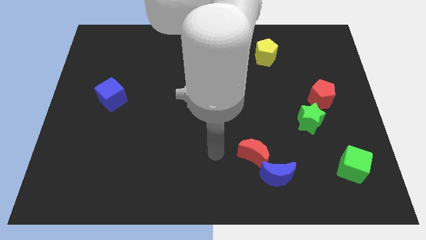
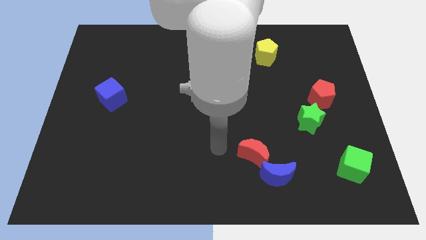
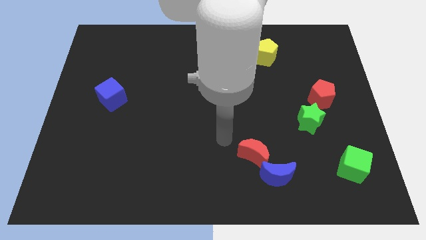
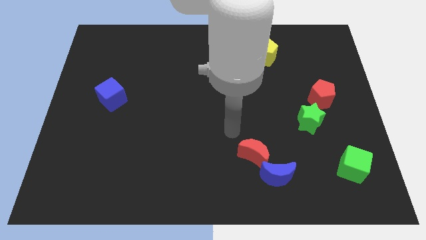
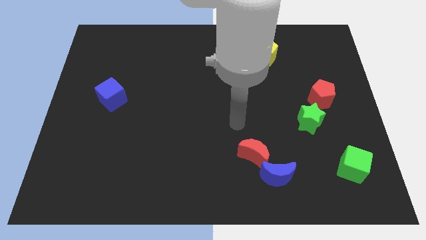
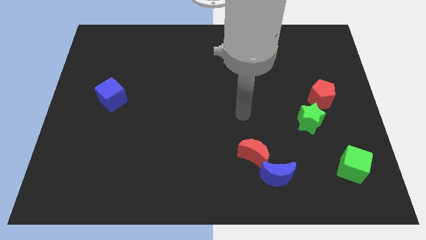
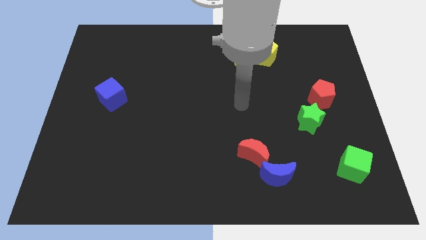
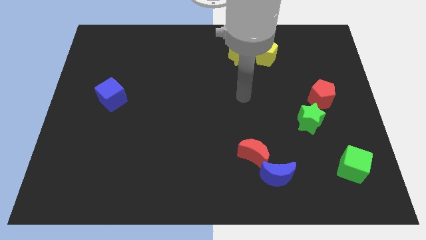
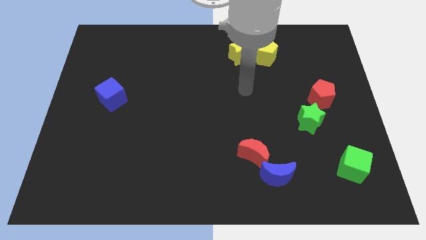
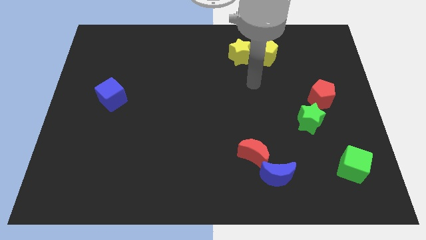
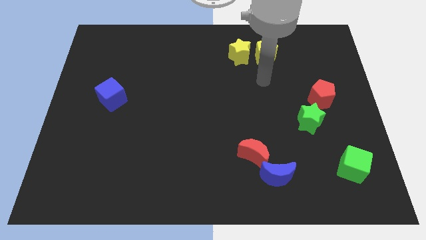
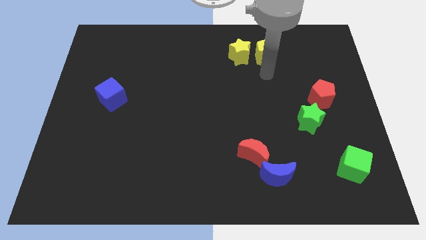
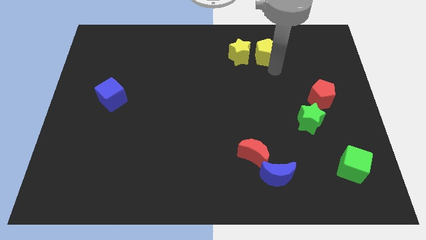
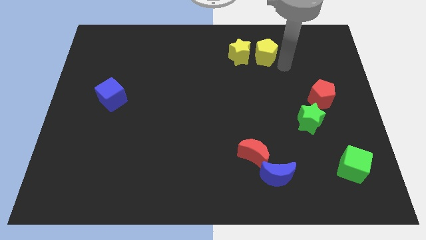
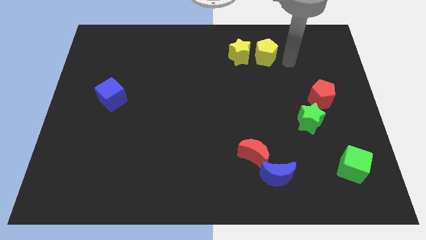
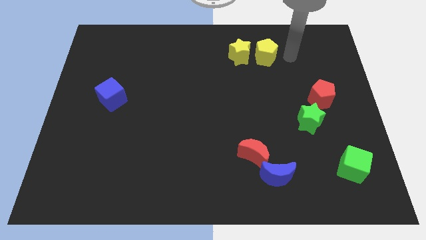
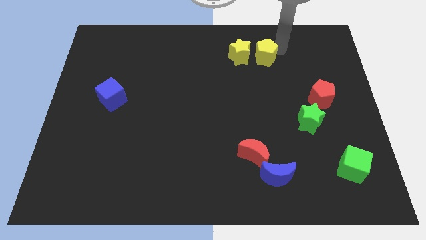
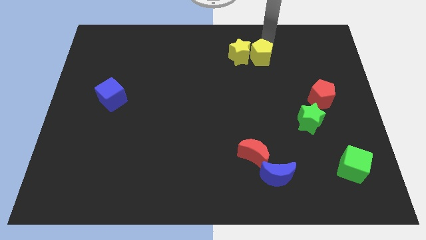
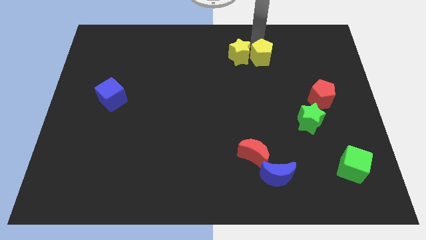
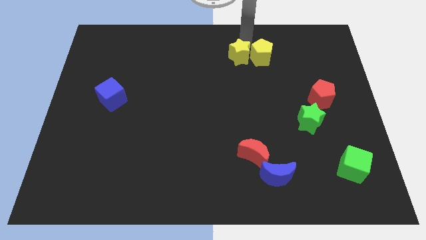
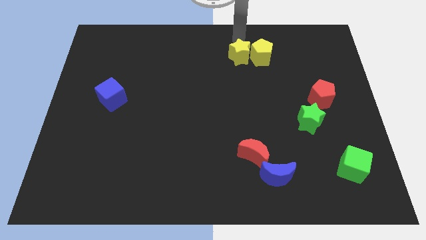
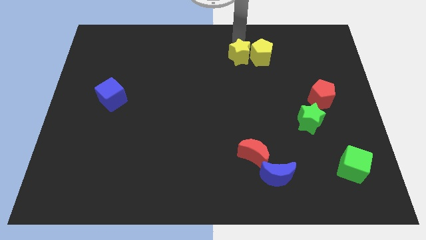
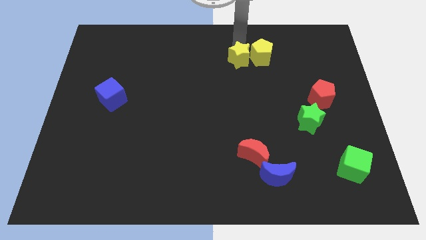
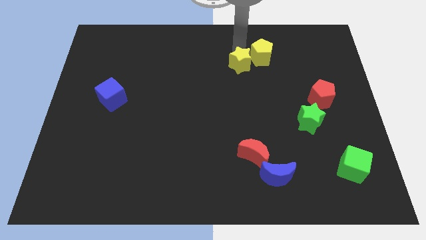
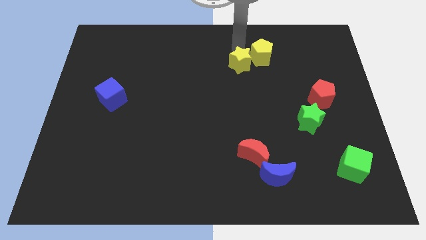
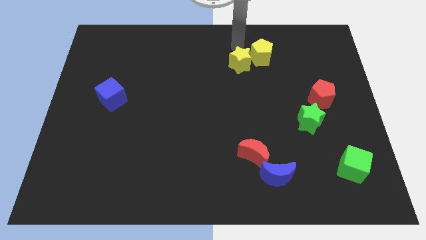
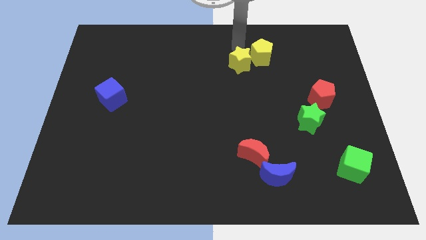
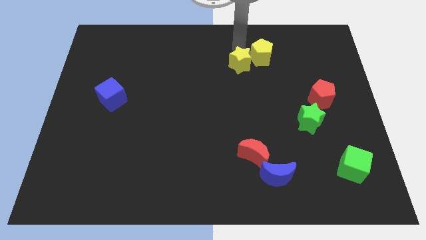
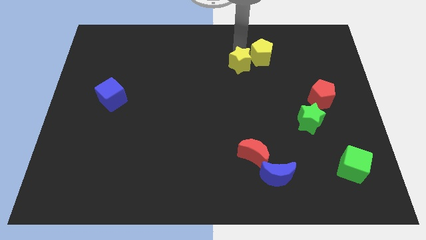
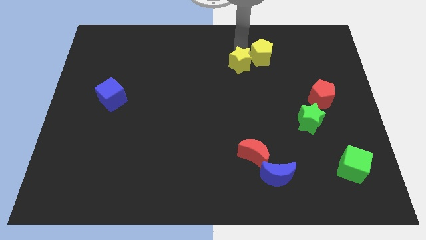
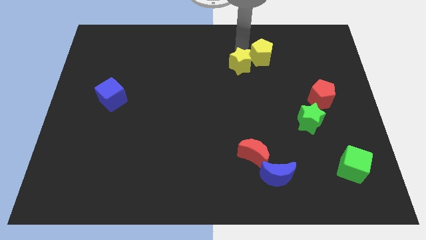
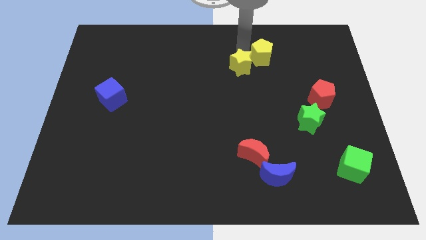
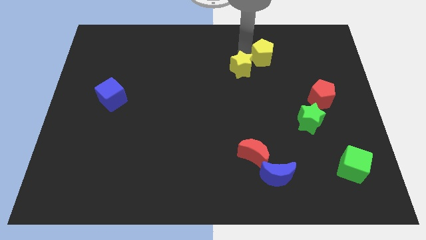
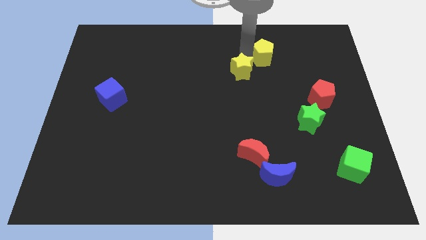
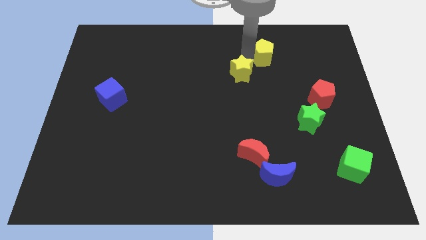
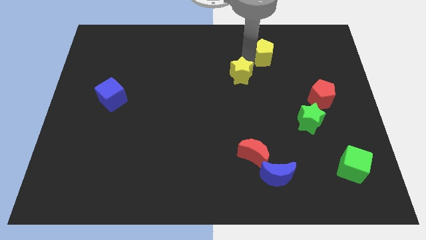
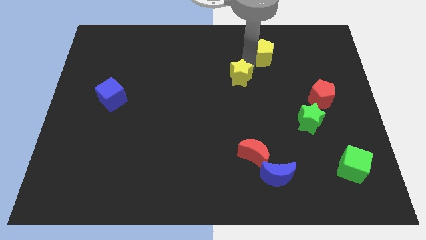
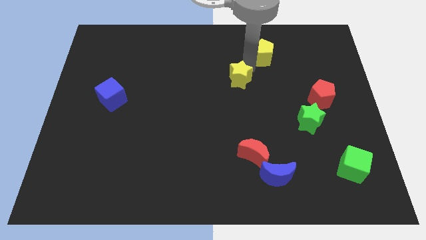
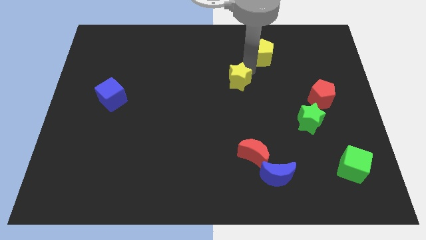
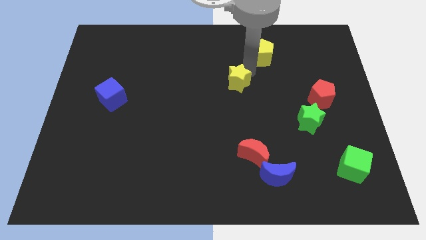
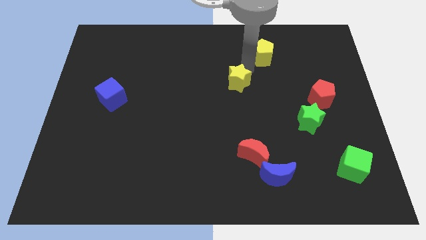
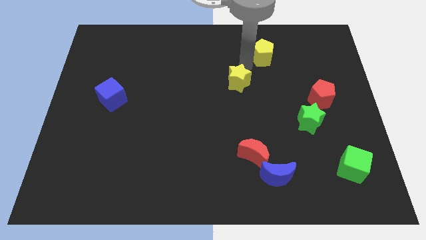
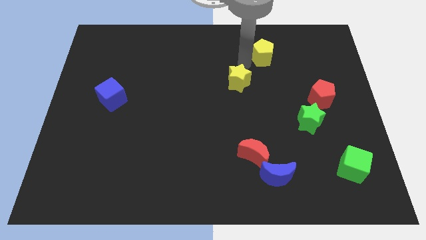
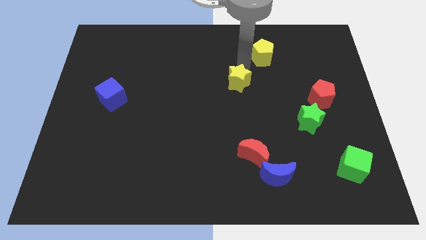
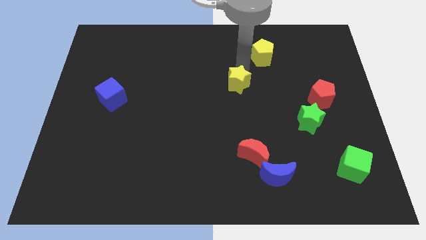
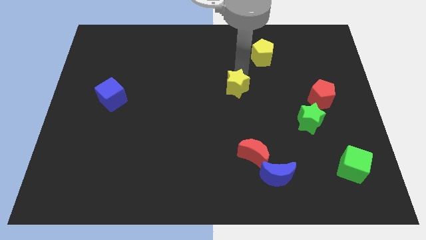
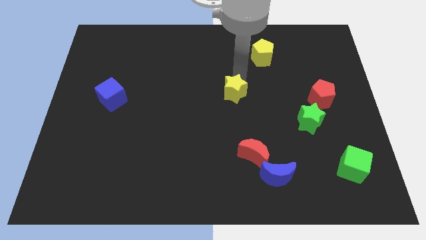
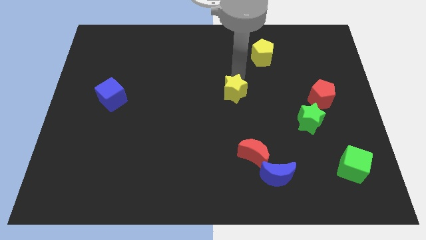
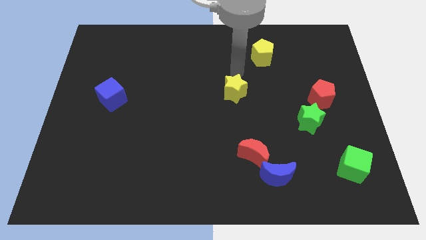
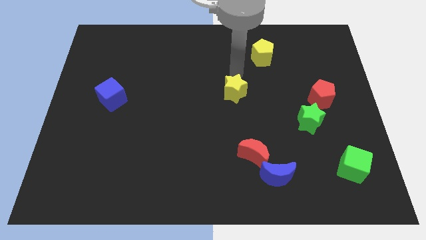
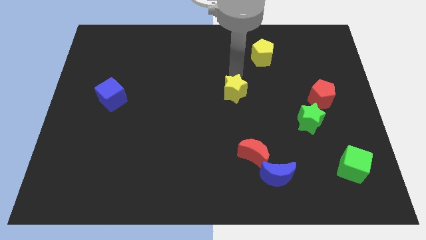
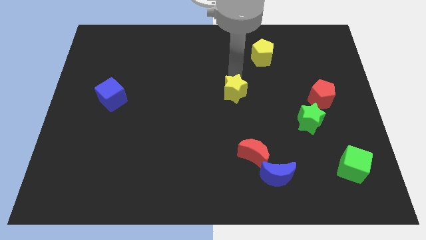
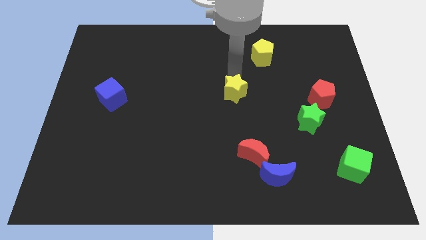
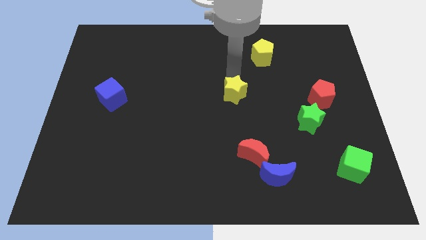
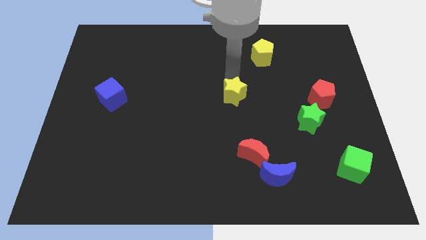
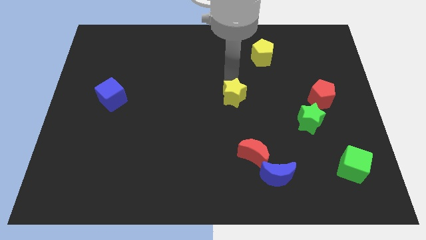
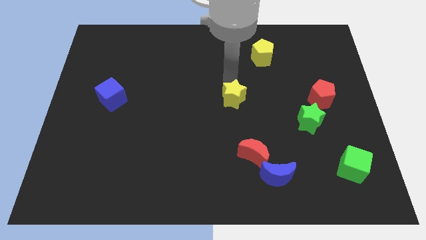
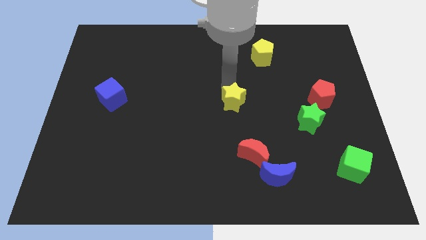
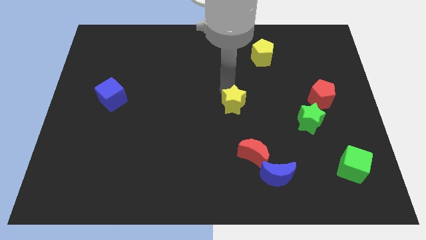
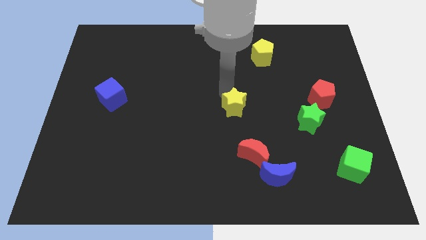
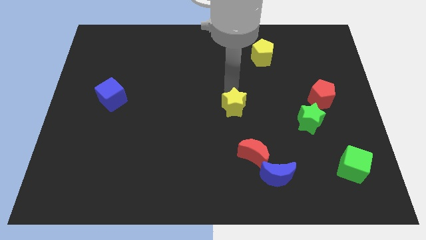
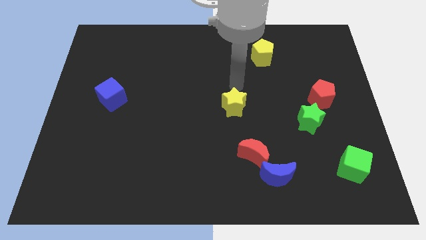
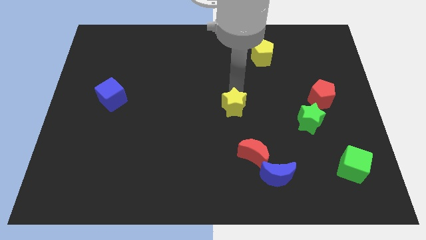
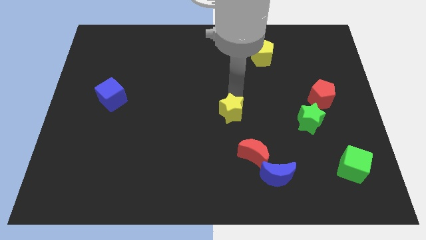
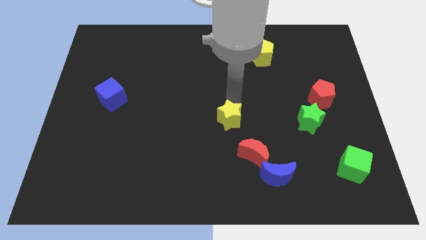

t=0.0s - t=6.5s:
move the yellow star to the top left side of the red moon
